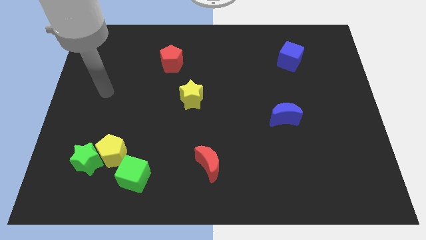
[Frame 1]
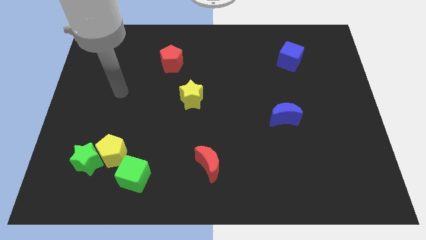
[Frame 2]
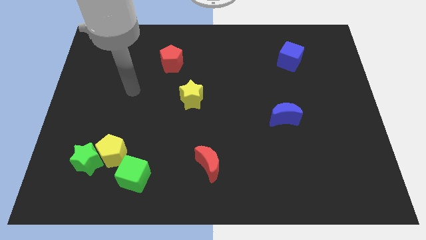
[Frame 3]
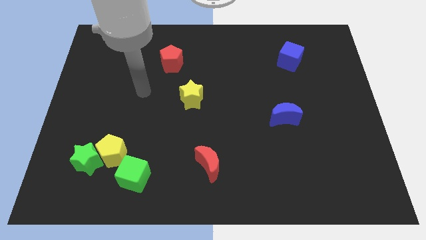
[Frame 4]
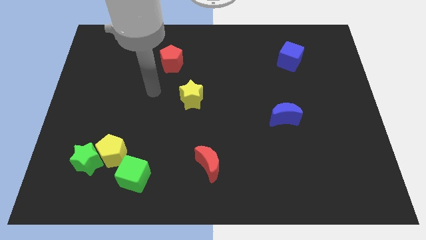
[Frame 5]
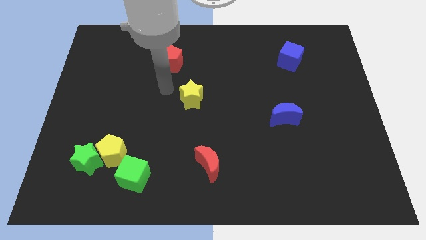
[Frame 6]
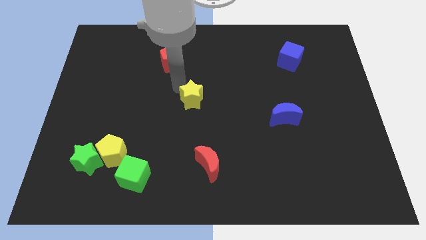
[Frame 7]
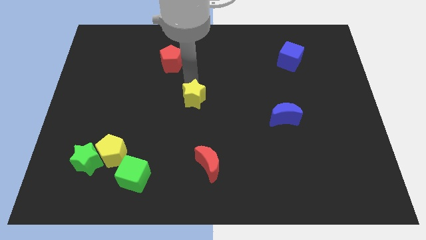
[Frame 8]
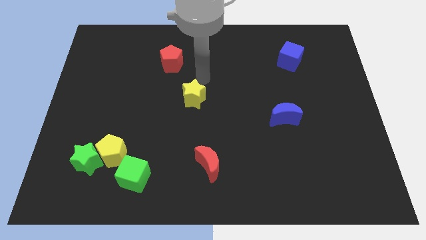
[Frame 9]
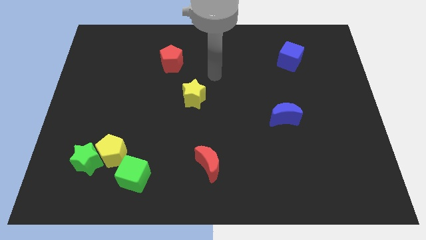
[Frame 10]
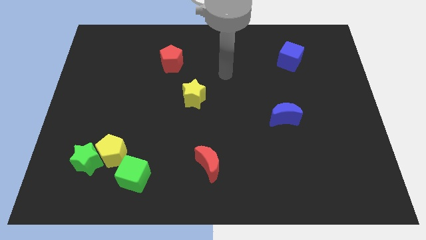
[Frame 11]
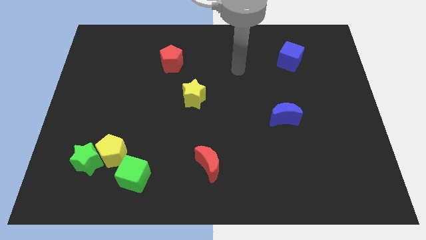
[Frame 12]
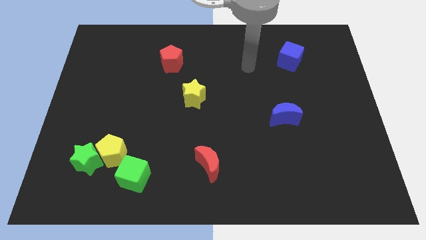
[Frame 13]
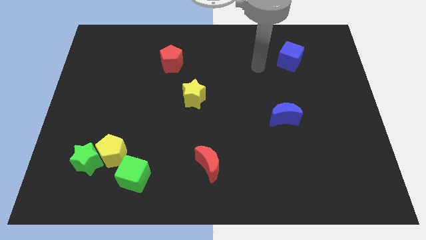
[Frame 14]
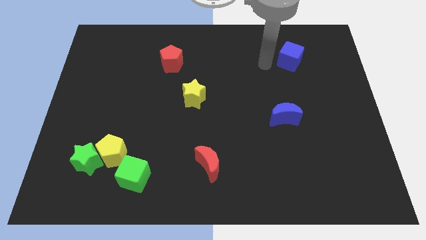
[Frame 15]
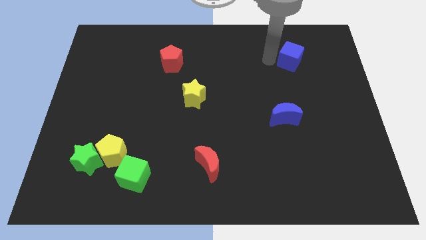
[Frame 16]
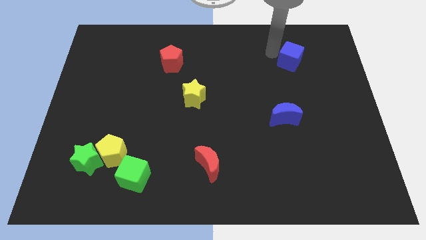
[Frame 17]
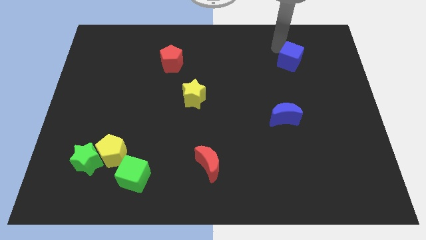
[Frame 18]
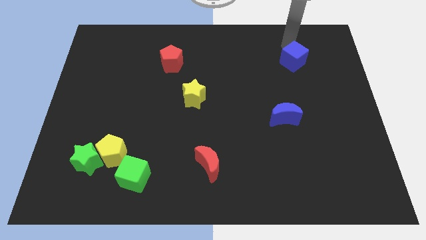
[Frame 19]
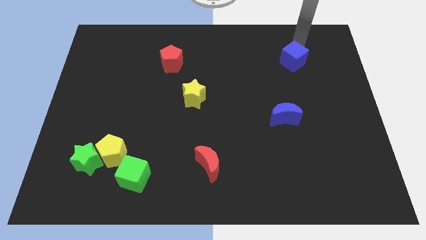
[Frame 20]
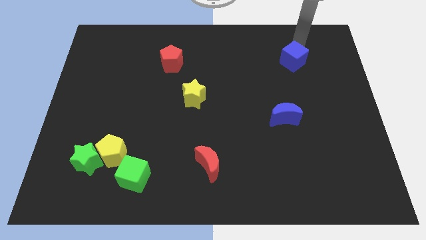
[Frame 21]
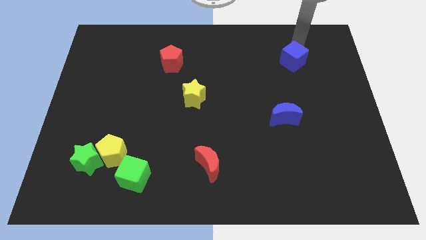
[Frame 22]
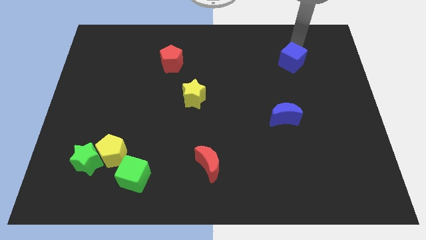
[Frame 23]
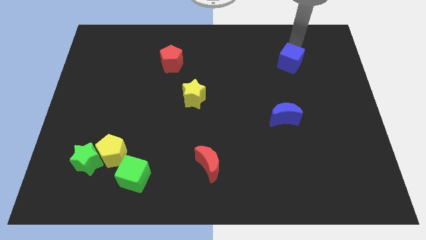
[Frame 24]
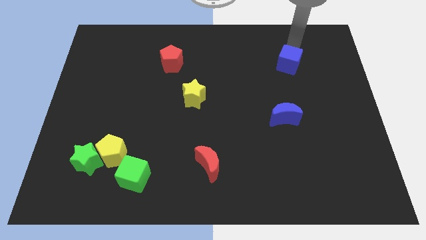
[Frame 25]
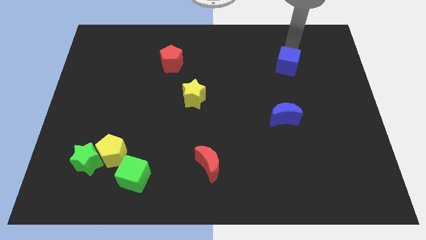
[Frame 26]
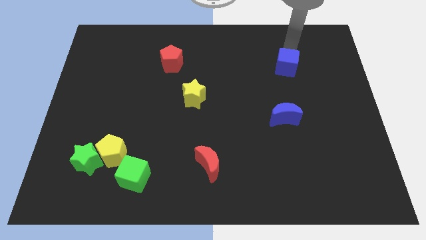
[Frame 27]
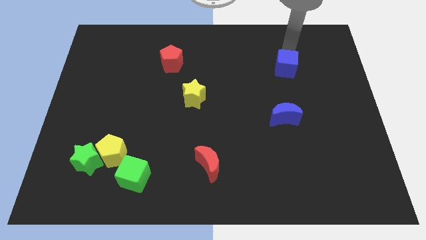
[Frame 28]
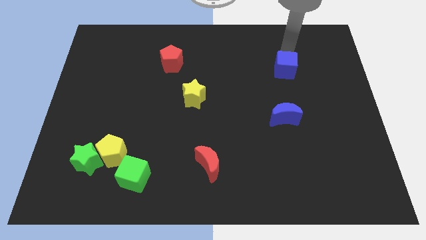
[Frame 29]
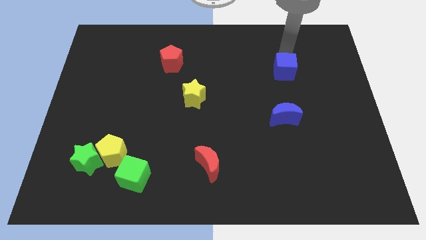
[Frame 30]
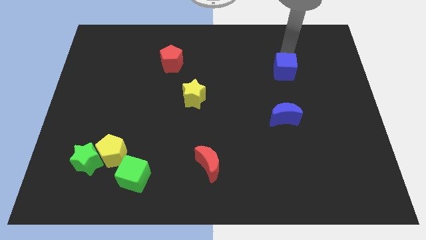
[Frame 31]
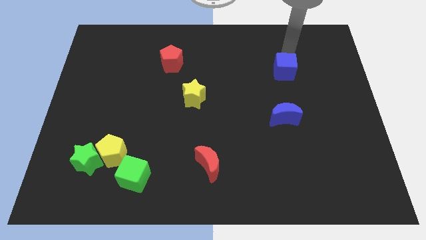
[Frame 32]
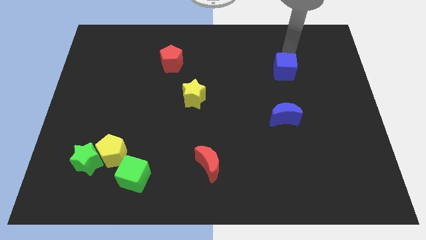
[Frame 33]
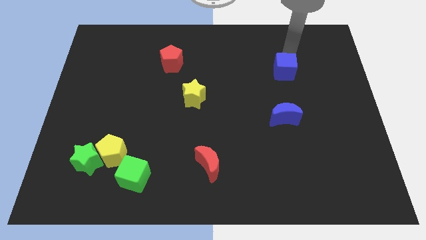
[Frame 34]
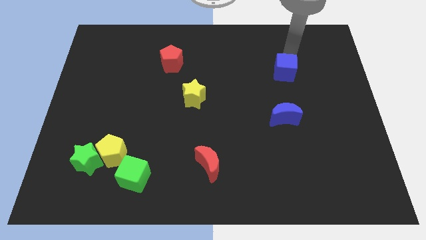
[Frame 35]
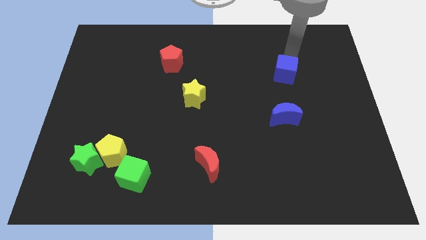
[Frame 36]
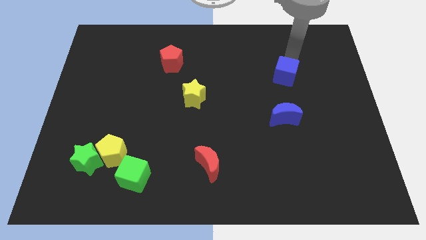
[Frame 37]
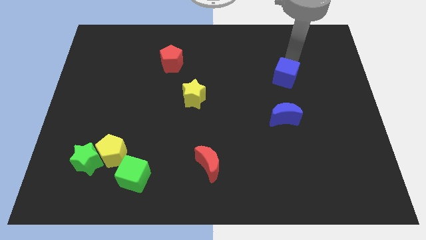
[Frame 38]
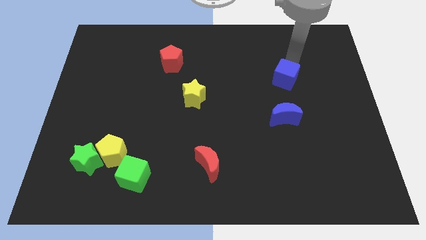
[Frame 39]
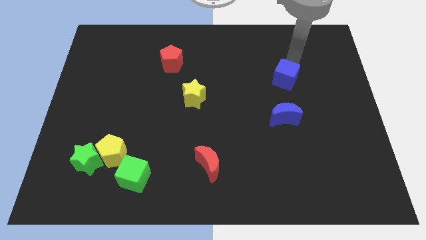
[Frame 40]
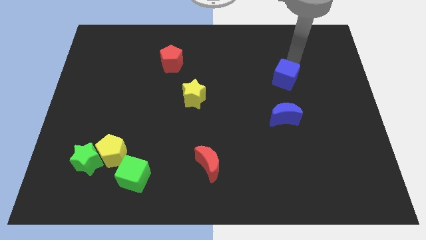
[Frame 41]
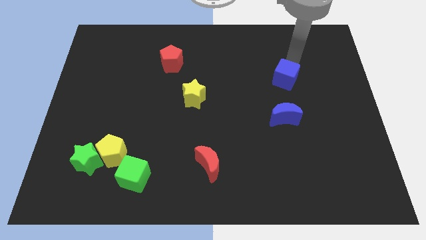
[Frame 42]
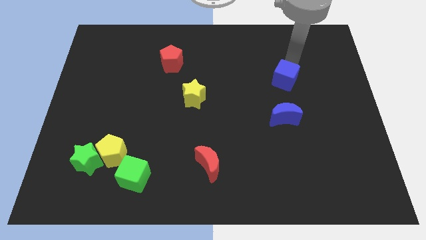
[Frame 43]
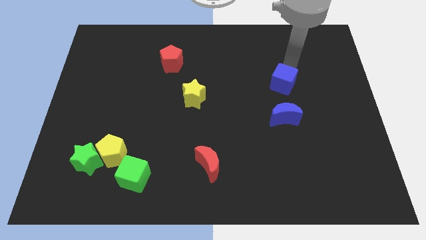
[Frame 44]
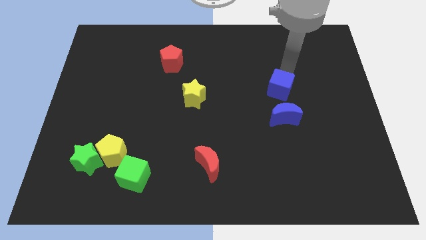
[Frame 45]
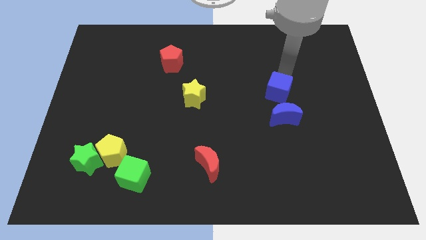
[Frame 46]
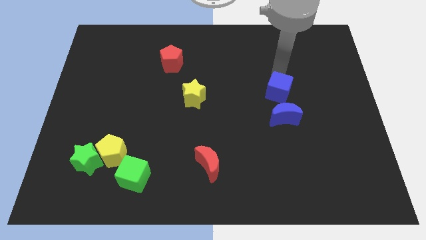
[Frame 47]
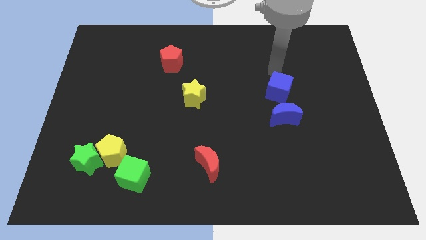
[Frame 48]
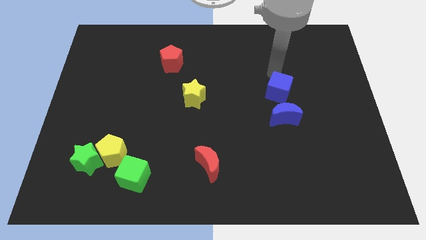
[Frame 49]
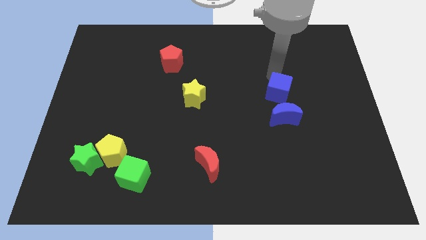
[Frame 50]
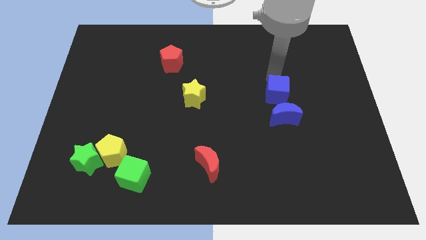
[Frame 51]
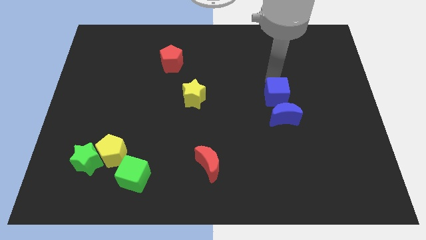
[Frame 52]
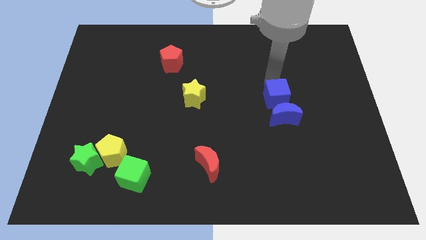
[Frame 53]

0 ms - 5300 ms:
move the blue cube to the blue moon

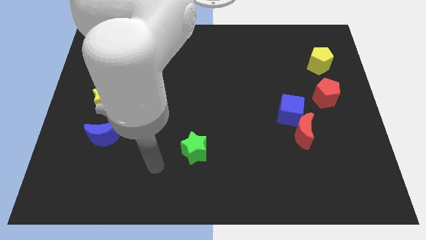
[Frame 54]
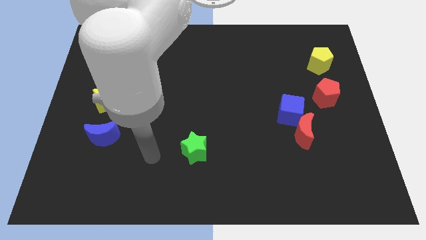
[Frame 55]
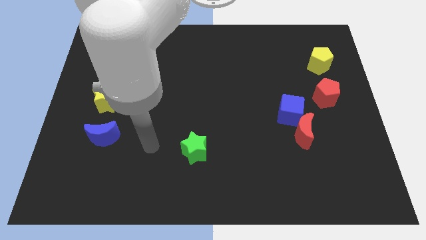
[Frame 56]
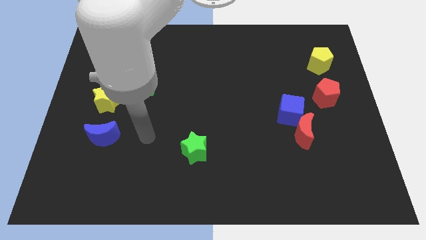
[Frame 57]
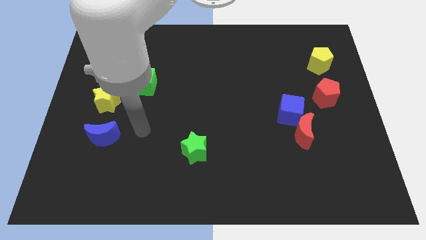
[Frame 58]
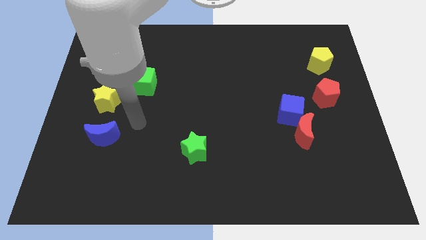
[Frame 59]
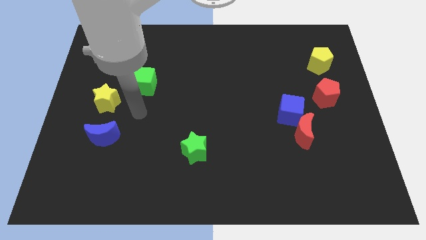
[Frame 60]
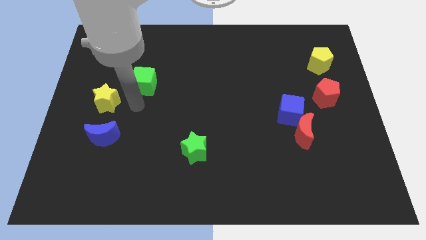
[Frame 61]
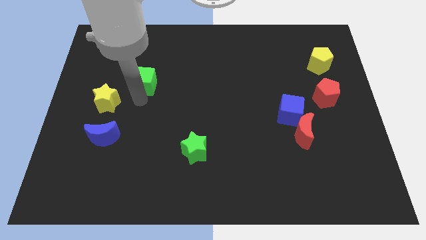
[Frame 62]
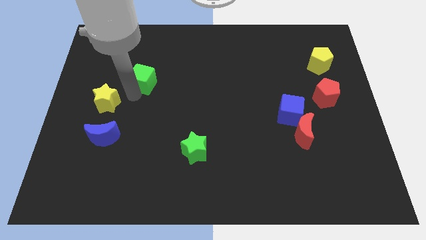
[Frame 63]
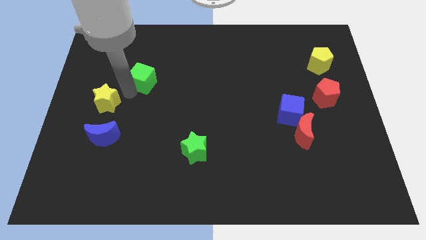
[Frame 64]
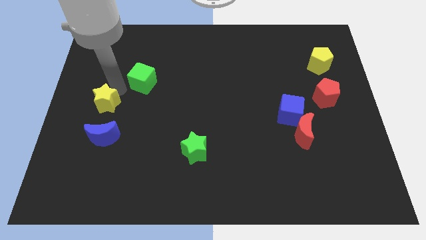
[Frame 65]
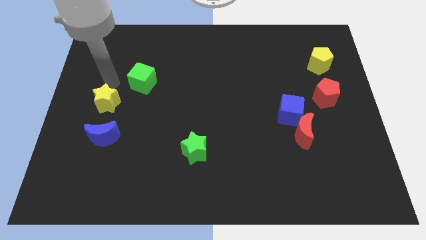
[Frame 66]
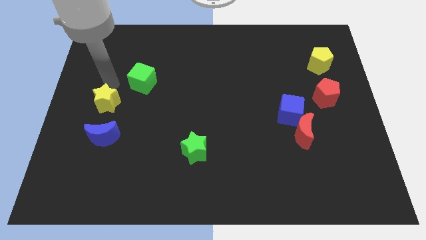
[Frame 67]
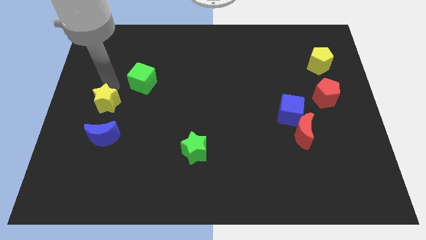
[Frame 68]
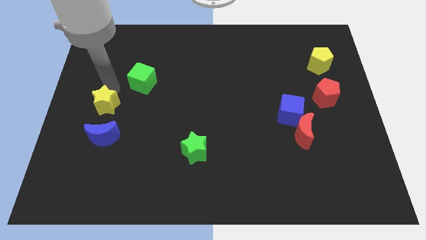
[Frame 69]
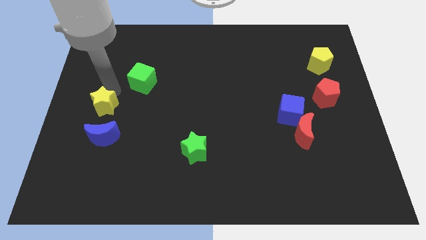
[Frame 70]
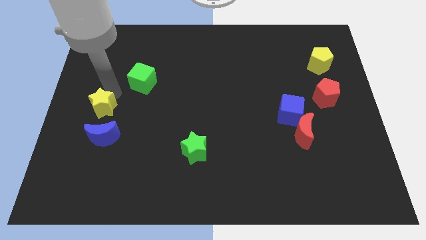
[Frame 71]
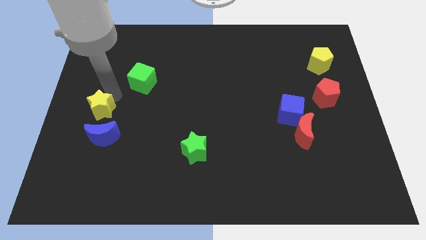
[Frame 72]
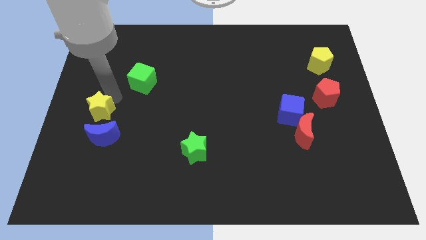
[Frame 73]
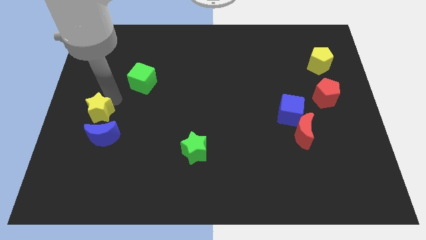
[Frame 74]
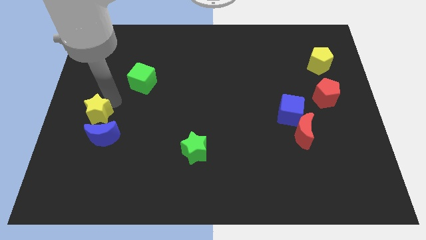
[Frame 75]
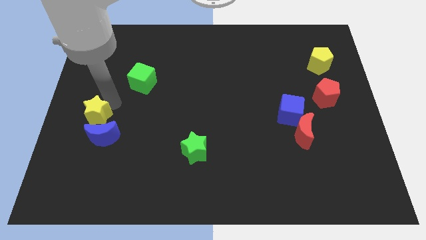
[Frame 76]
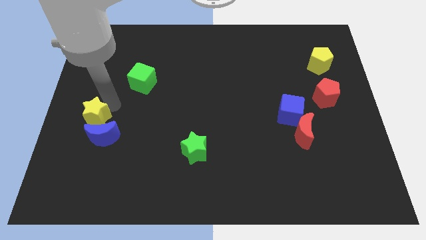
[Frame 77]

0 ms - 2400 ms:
move the yellow star towards the blue moon

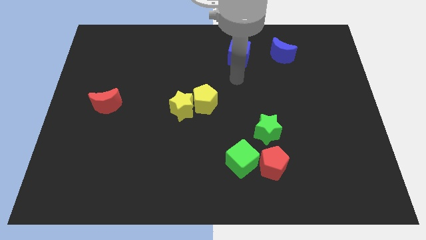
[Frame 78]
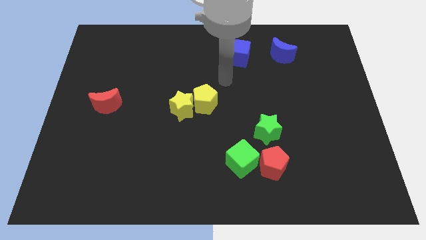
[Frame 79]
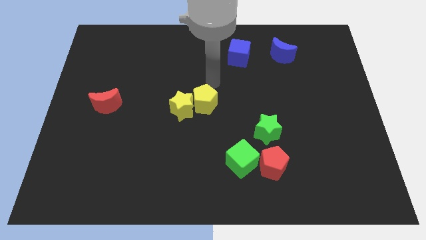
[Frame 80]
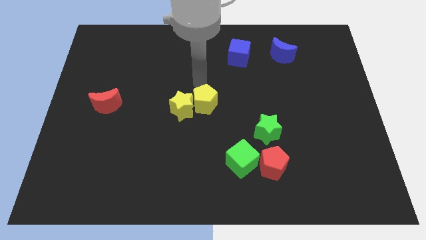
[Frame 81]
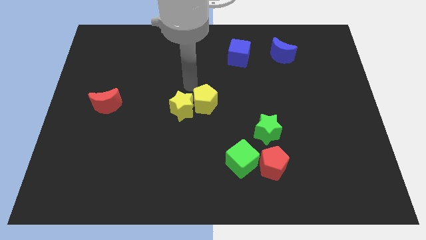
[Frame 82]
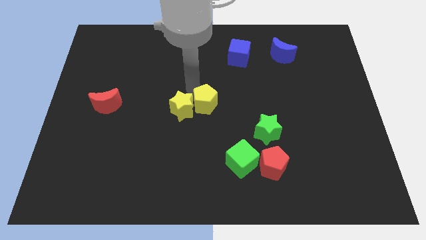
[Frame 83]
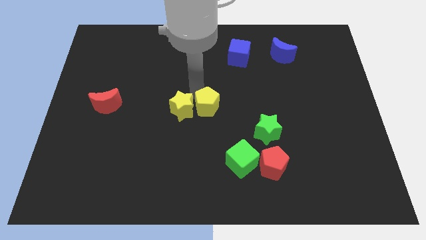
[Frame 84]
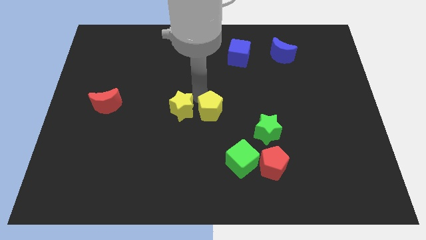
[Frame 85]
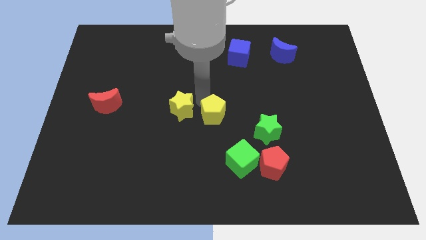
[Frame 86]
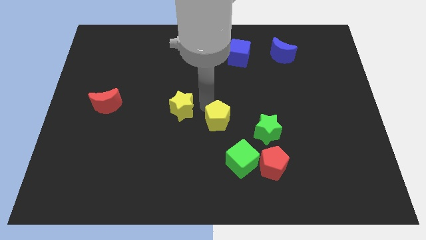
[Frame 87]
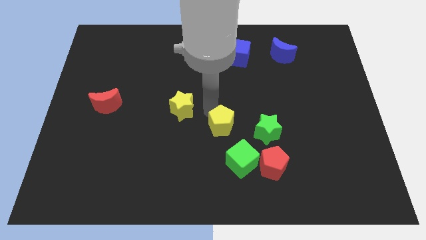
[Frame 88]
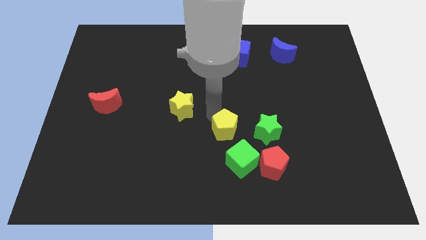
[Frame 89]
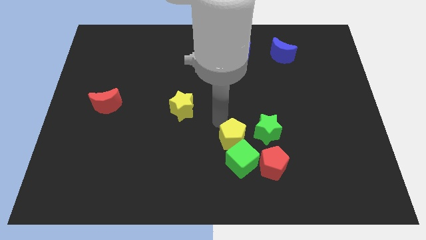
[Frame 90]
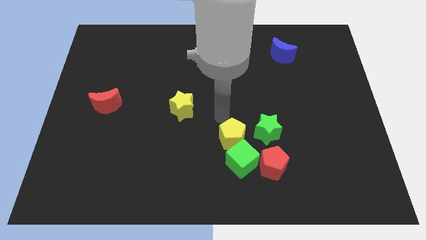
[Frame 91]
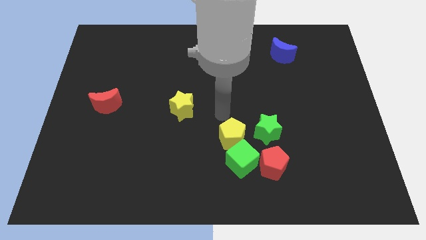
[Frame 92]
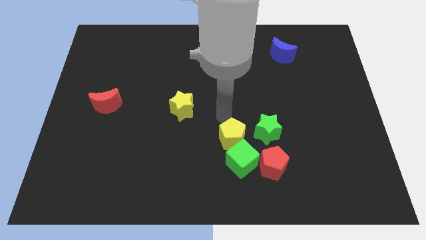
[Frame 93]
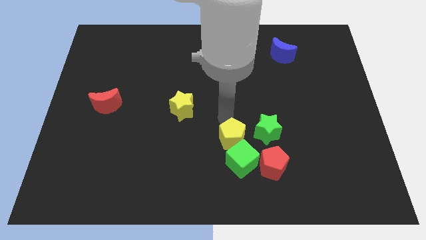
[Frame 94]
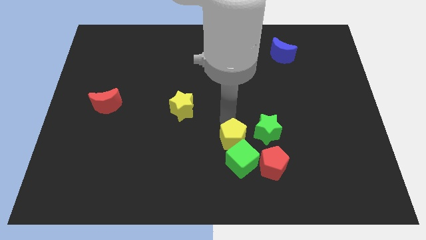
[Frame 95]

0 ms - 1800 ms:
move the yellow pentagon next to the green cube
